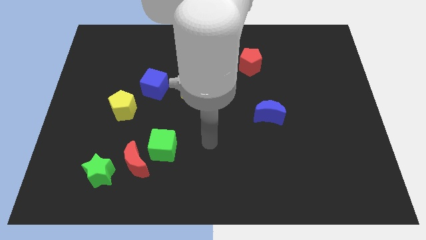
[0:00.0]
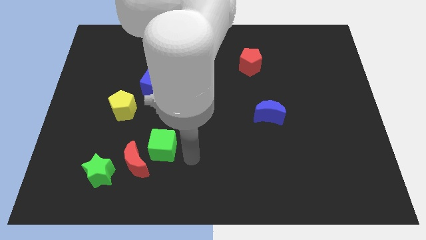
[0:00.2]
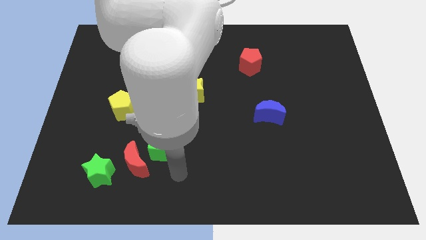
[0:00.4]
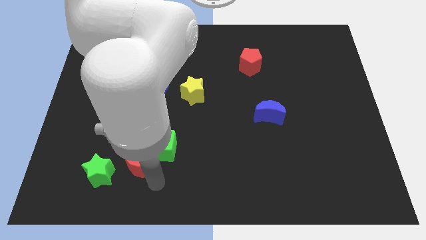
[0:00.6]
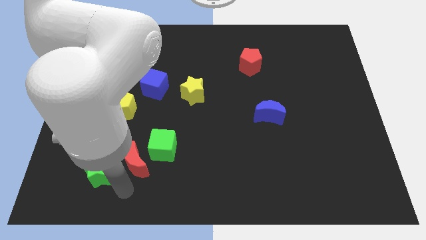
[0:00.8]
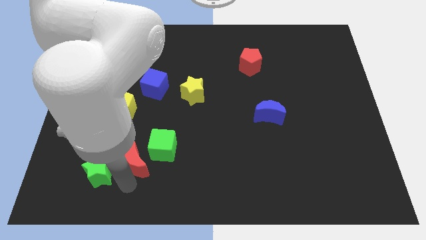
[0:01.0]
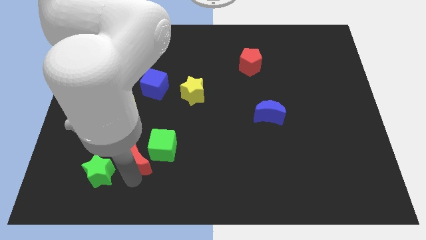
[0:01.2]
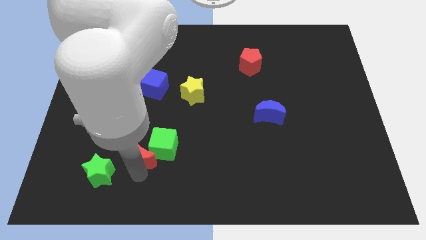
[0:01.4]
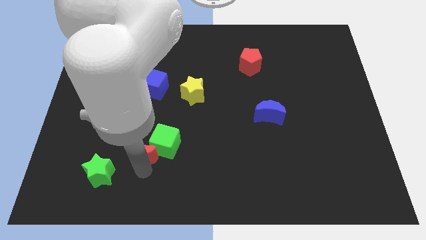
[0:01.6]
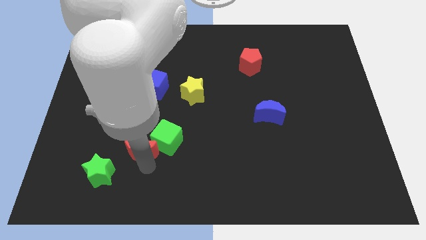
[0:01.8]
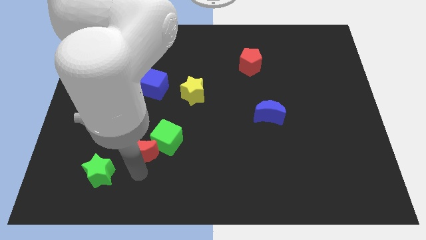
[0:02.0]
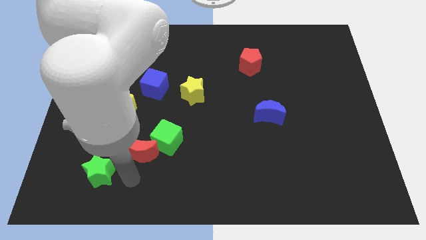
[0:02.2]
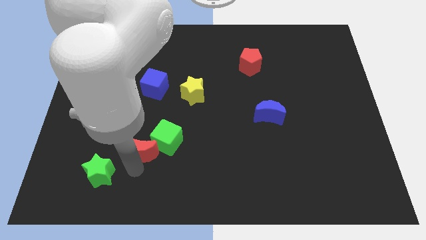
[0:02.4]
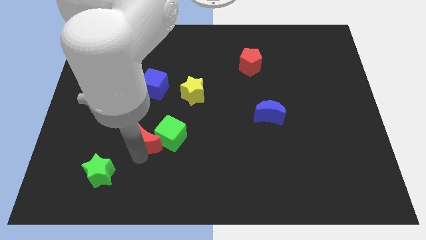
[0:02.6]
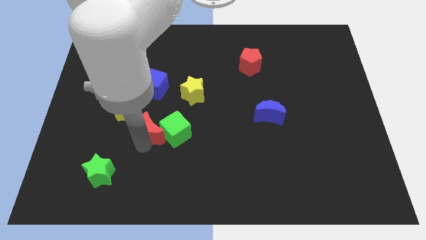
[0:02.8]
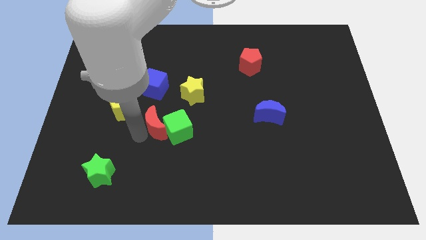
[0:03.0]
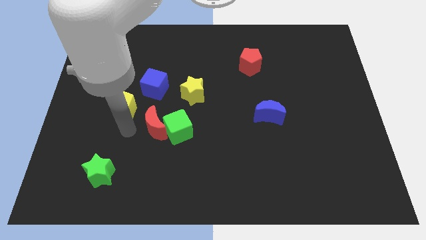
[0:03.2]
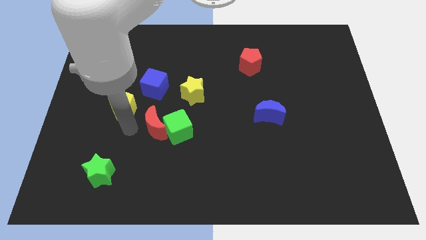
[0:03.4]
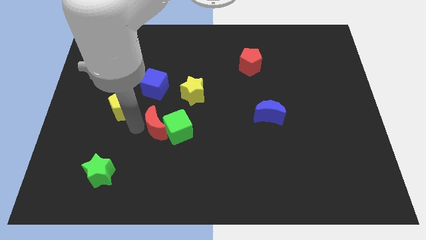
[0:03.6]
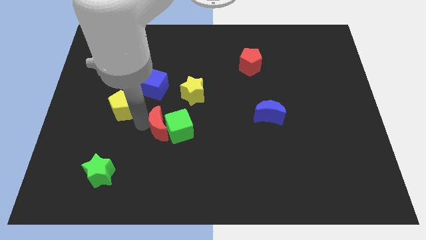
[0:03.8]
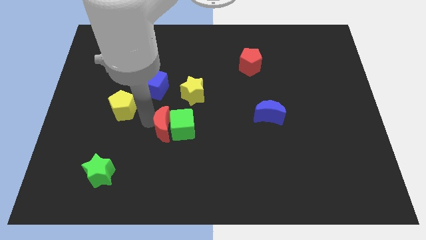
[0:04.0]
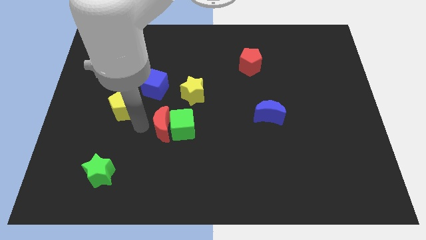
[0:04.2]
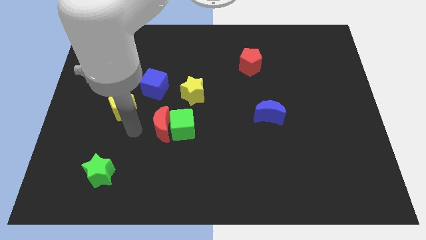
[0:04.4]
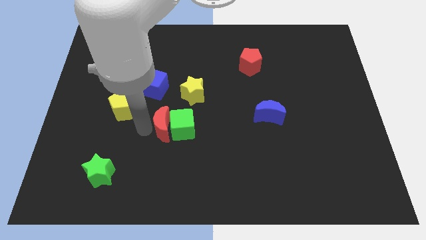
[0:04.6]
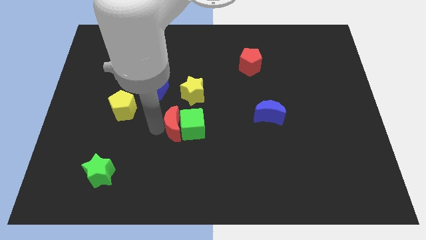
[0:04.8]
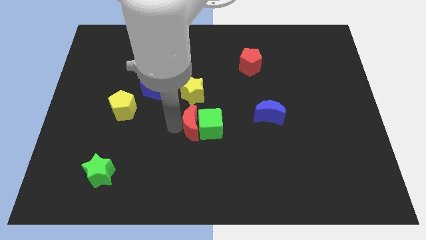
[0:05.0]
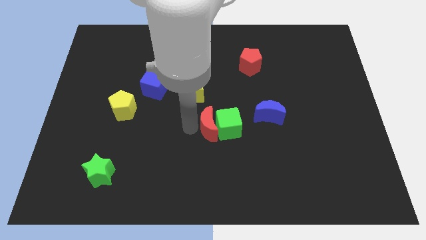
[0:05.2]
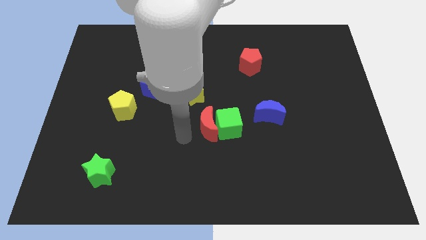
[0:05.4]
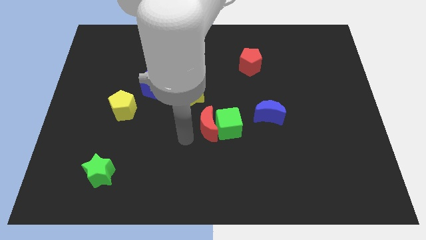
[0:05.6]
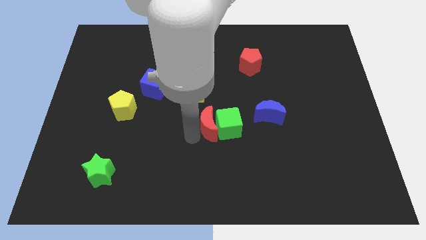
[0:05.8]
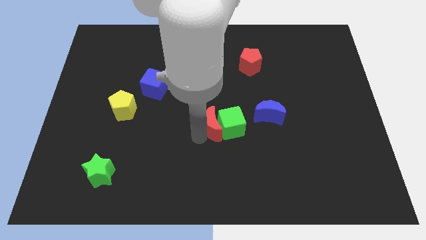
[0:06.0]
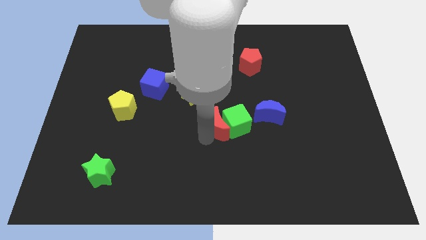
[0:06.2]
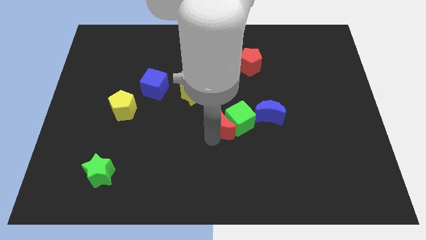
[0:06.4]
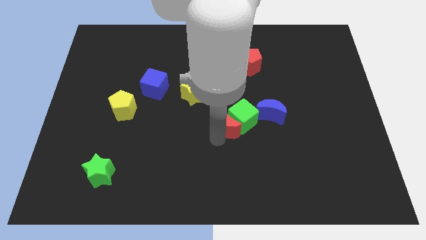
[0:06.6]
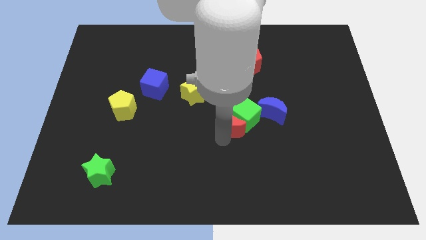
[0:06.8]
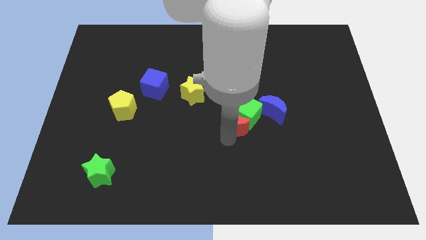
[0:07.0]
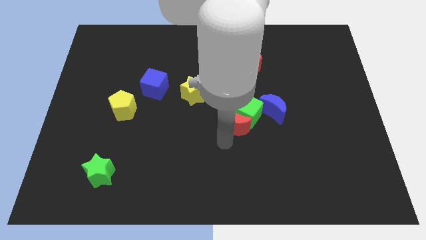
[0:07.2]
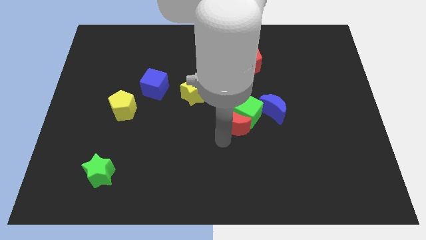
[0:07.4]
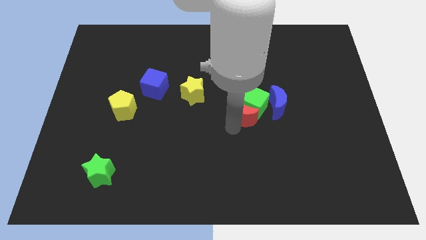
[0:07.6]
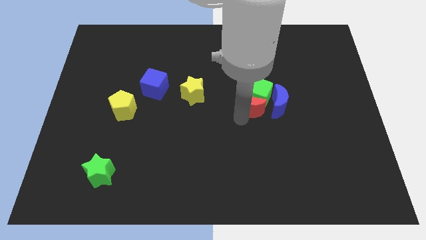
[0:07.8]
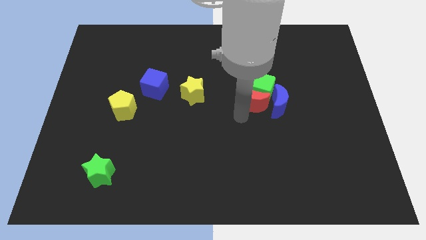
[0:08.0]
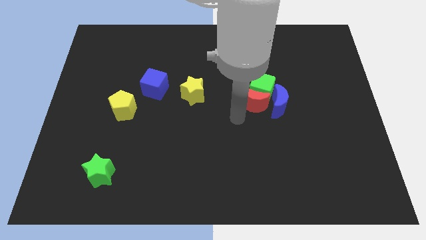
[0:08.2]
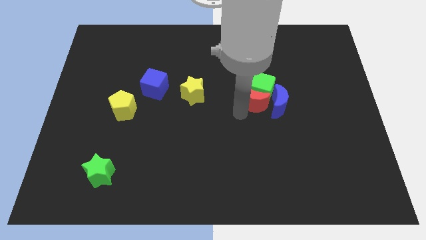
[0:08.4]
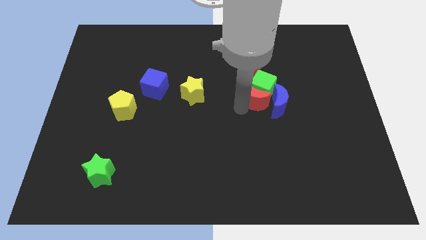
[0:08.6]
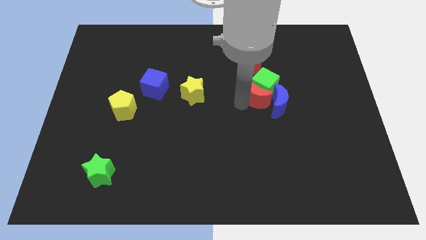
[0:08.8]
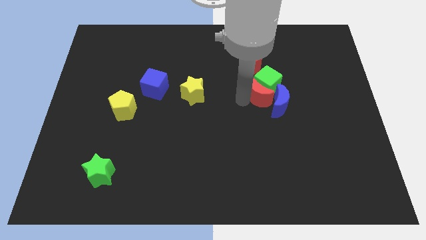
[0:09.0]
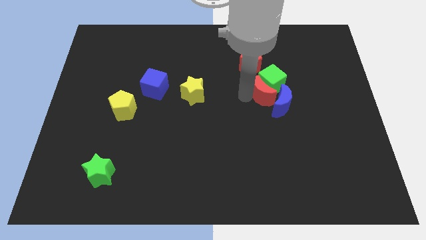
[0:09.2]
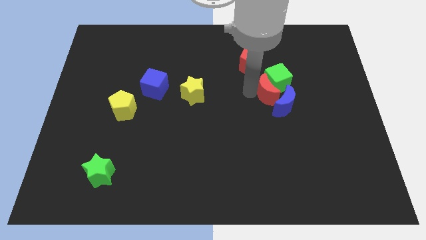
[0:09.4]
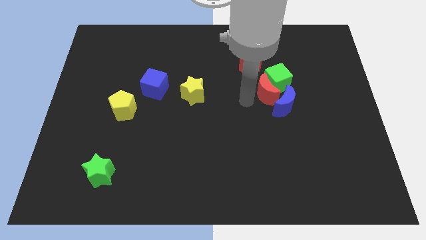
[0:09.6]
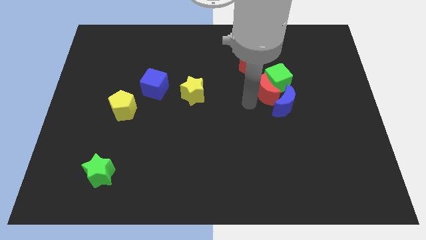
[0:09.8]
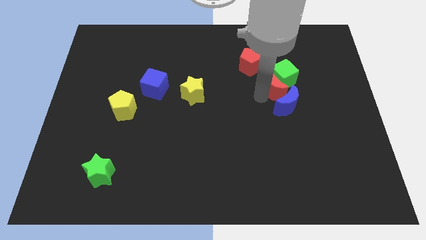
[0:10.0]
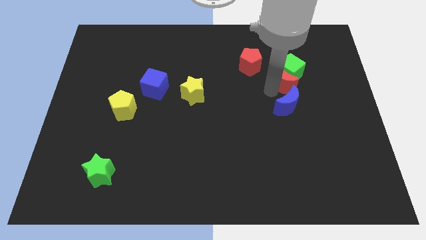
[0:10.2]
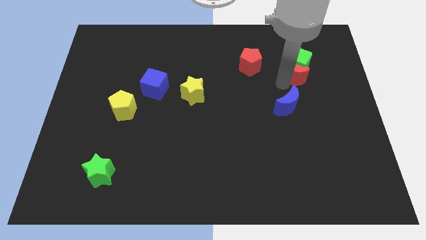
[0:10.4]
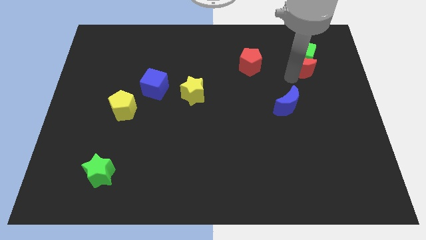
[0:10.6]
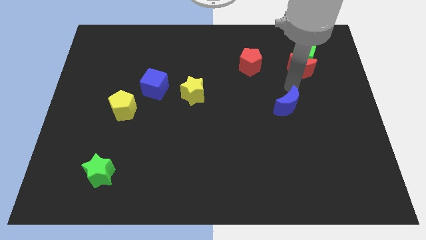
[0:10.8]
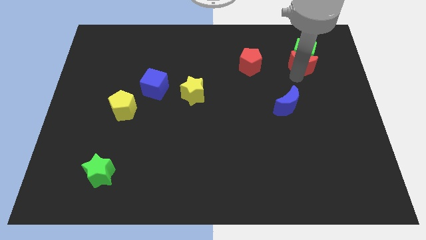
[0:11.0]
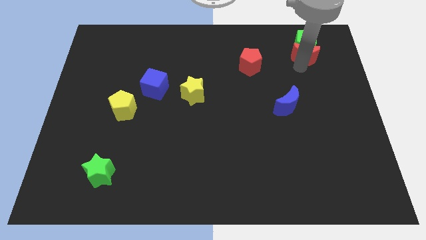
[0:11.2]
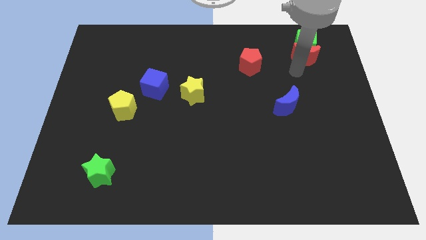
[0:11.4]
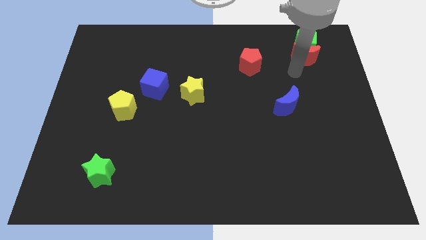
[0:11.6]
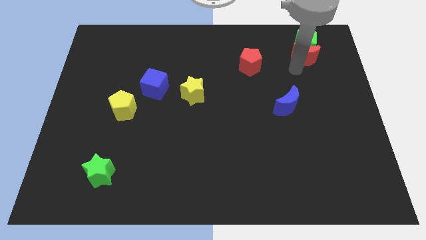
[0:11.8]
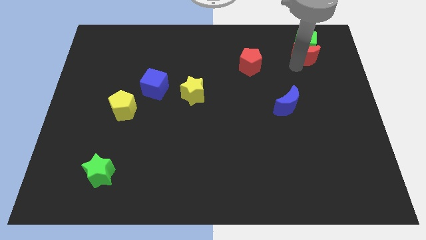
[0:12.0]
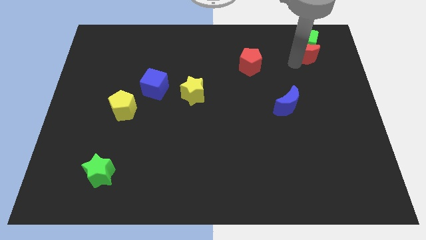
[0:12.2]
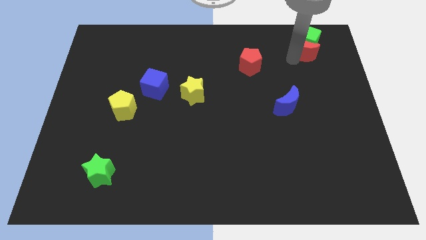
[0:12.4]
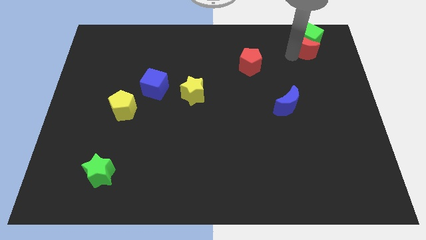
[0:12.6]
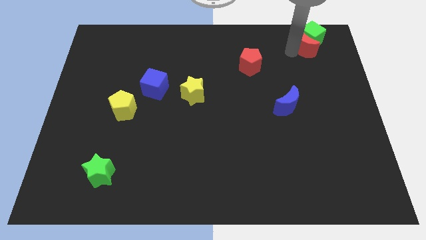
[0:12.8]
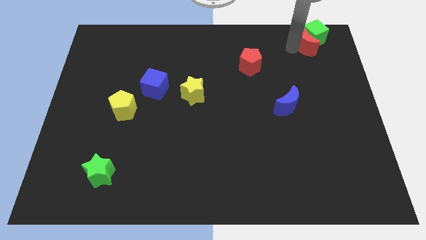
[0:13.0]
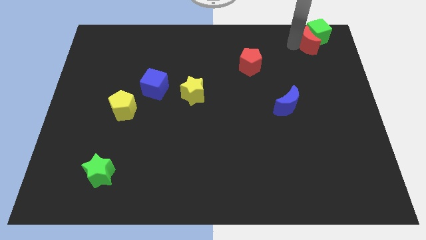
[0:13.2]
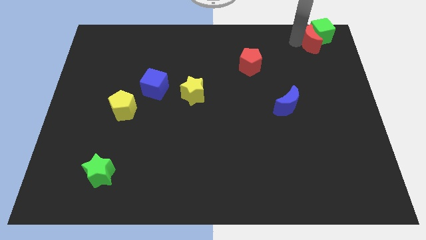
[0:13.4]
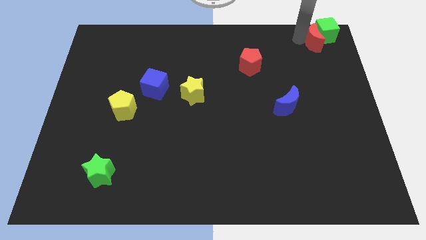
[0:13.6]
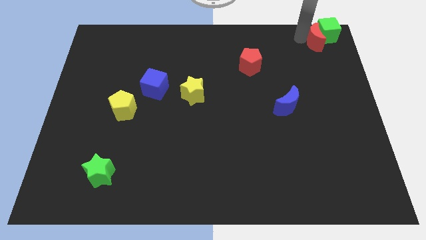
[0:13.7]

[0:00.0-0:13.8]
push the red moon to the upper right corner
